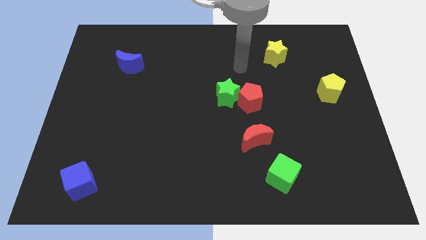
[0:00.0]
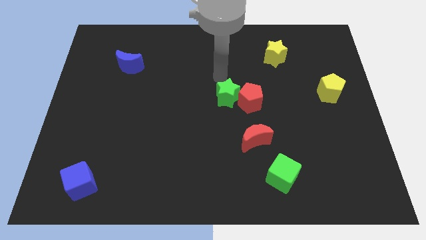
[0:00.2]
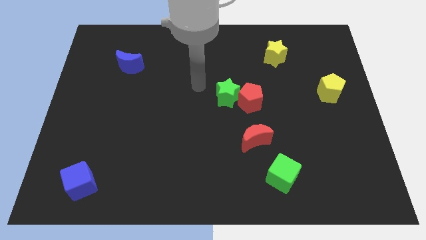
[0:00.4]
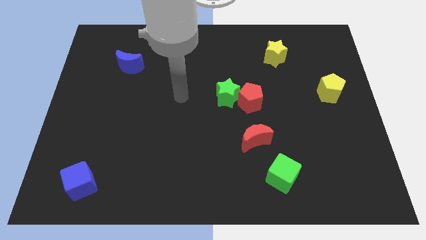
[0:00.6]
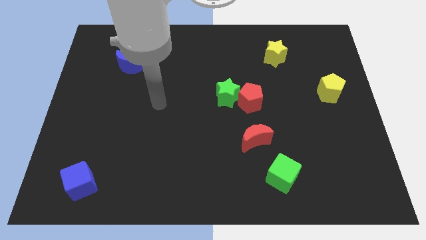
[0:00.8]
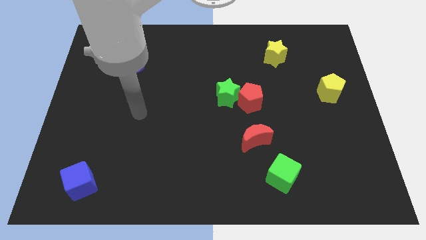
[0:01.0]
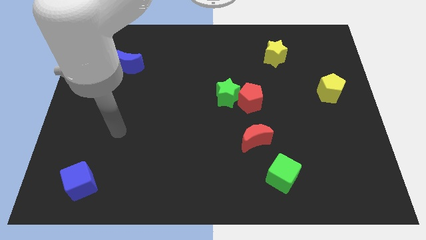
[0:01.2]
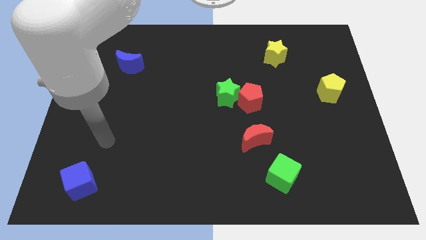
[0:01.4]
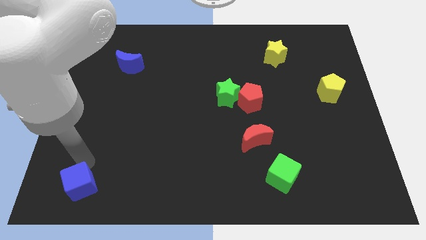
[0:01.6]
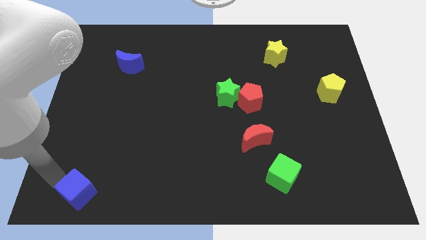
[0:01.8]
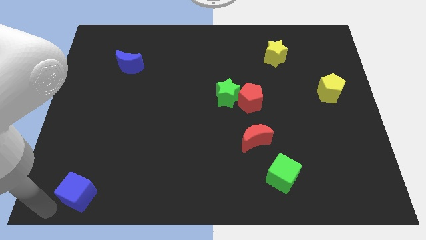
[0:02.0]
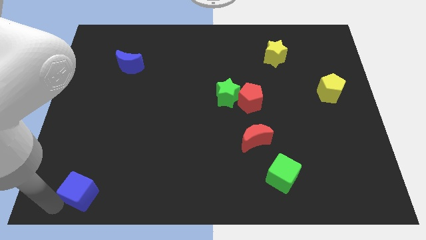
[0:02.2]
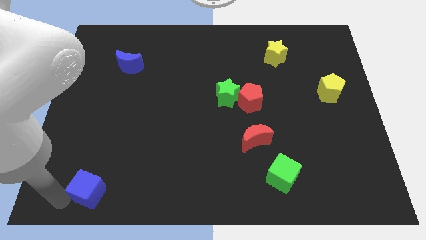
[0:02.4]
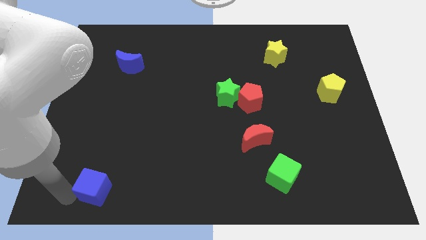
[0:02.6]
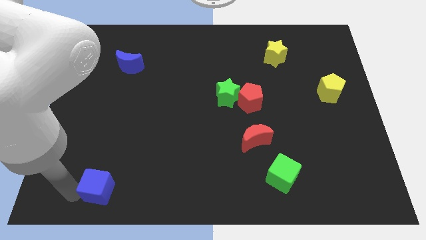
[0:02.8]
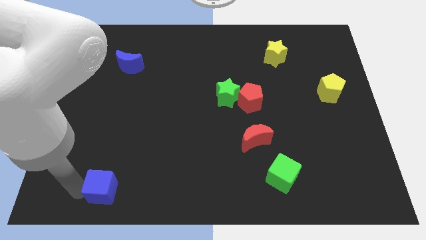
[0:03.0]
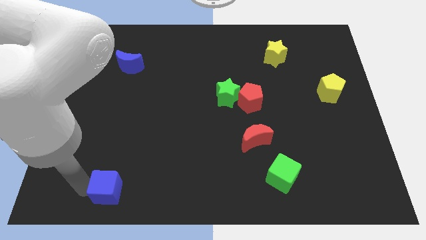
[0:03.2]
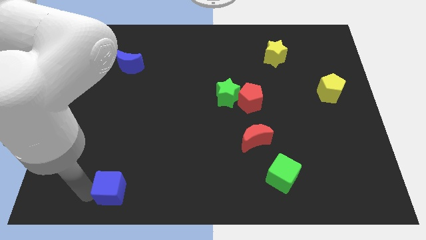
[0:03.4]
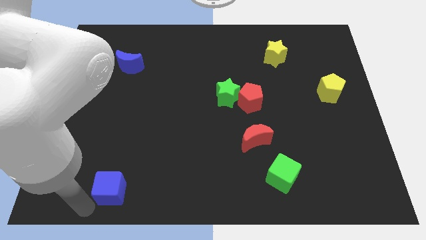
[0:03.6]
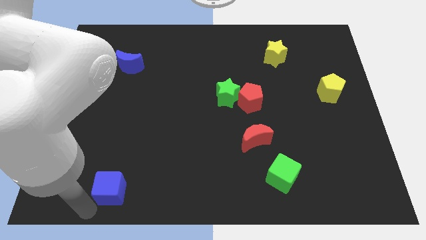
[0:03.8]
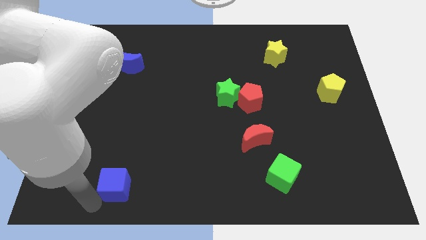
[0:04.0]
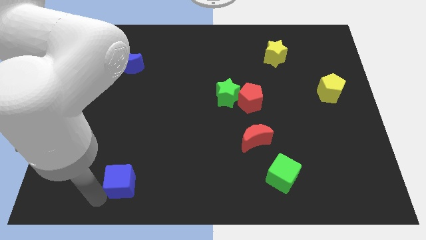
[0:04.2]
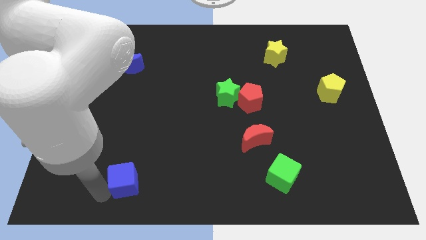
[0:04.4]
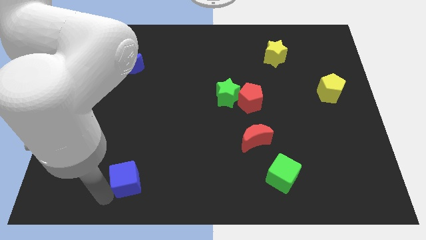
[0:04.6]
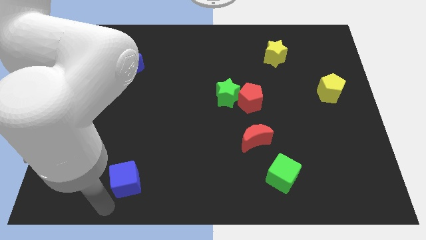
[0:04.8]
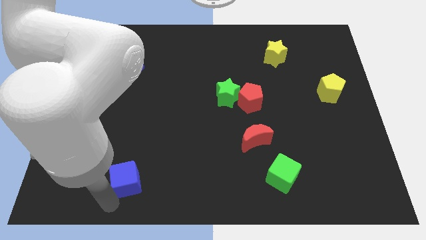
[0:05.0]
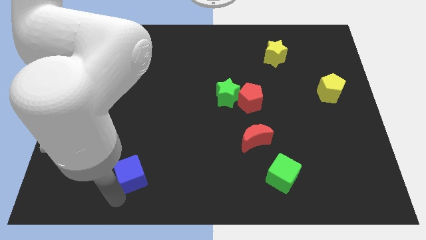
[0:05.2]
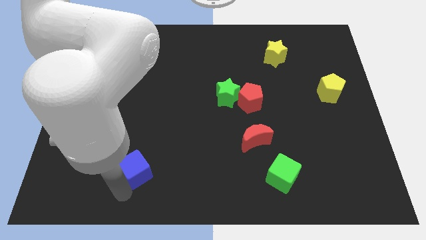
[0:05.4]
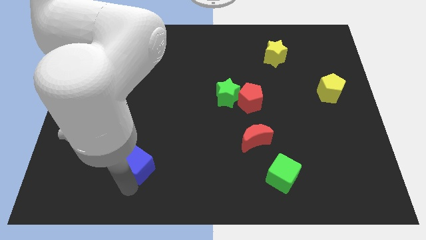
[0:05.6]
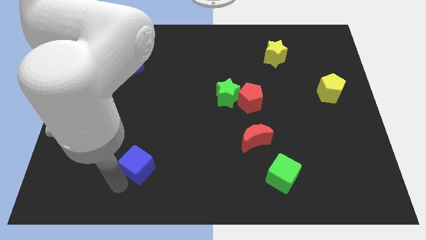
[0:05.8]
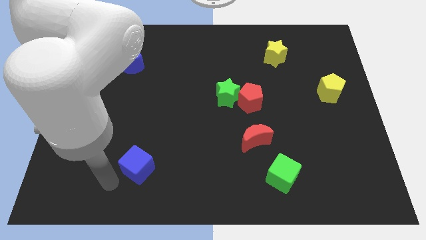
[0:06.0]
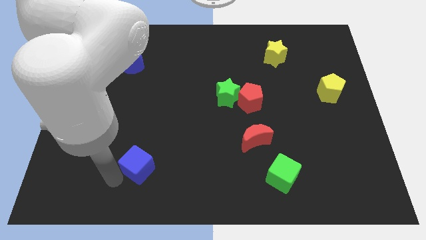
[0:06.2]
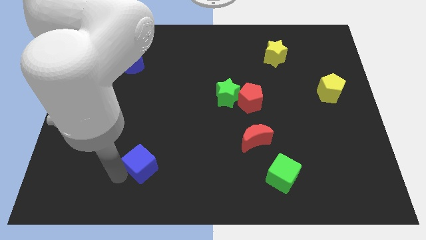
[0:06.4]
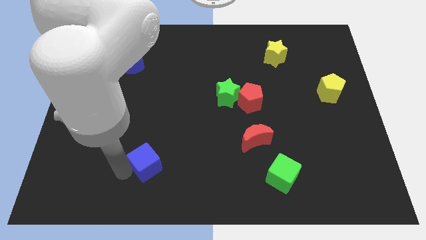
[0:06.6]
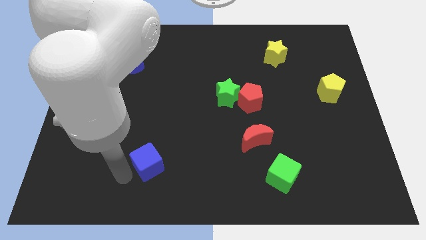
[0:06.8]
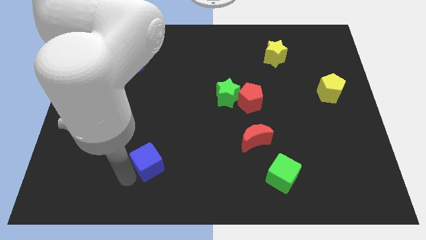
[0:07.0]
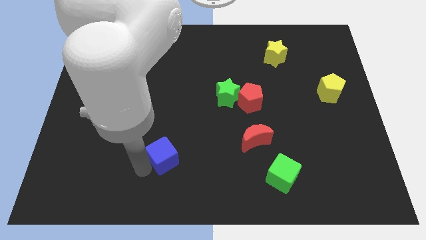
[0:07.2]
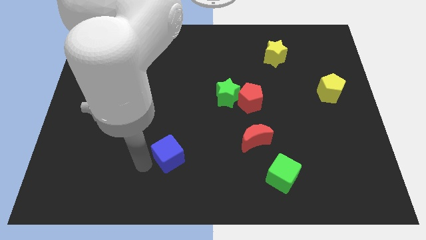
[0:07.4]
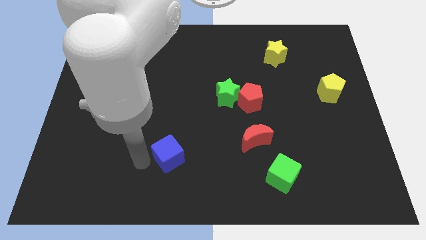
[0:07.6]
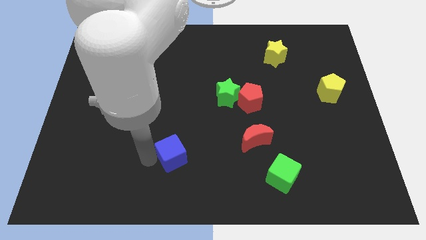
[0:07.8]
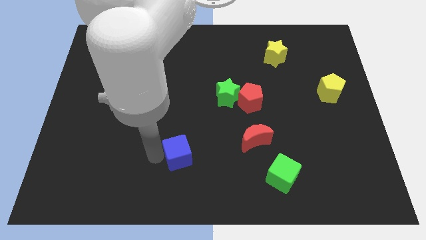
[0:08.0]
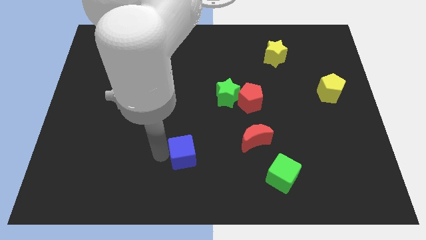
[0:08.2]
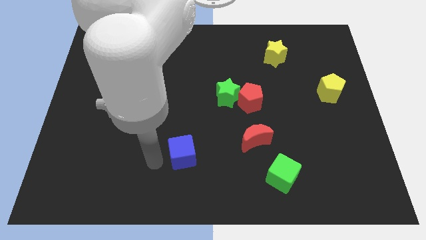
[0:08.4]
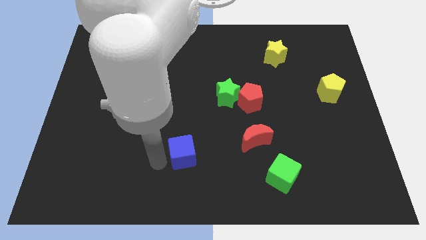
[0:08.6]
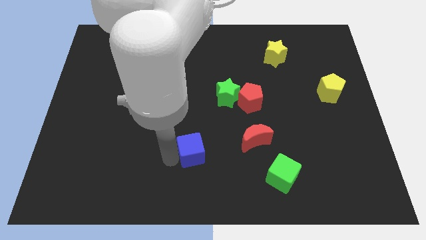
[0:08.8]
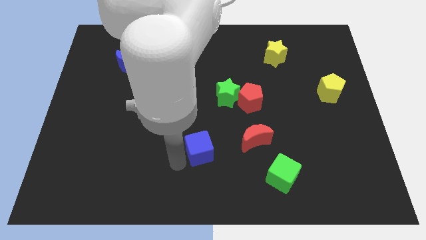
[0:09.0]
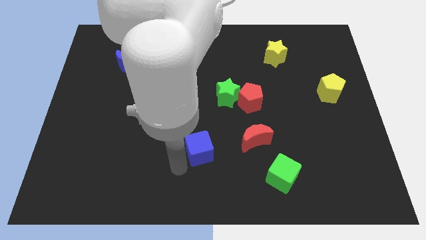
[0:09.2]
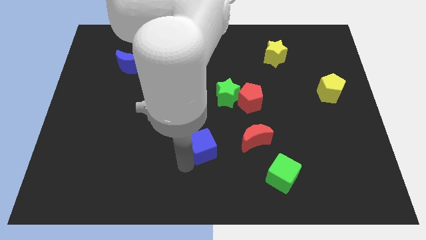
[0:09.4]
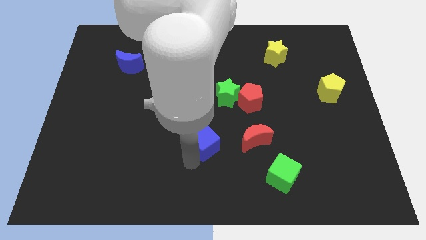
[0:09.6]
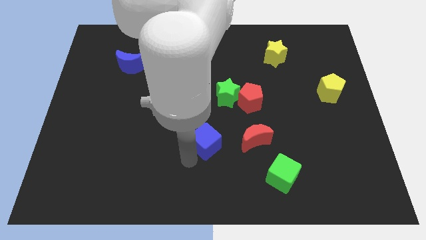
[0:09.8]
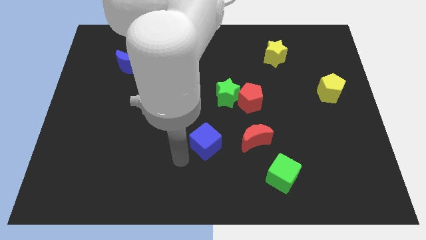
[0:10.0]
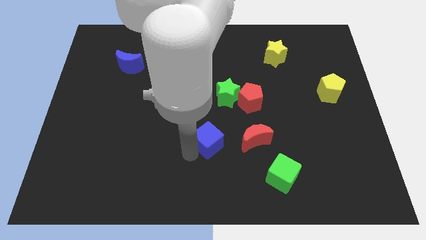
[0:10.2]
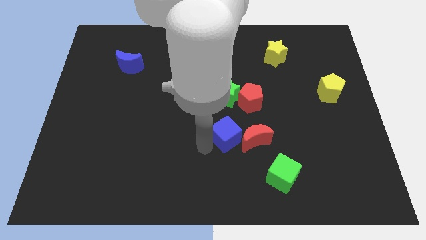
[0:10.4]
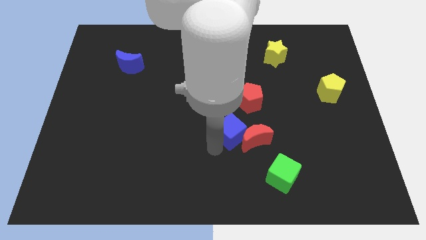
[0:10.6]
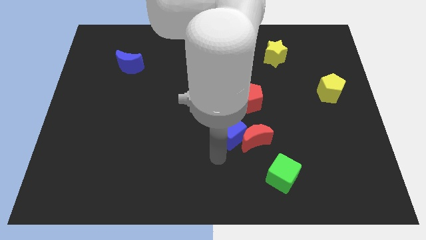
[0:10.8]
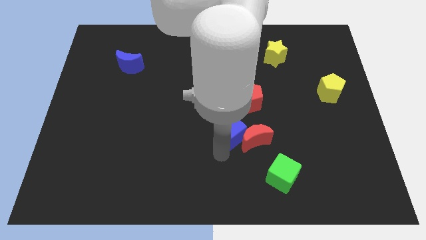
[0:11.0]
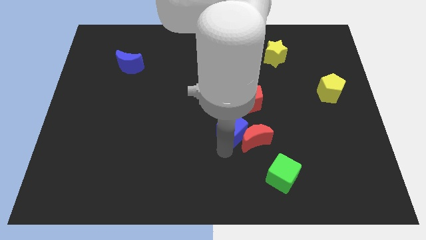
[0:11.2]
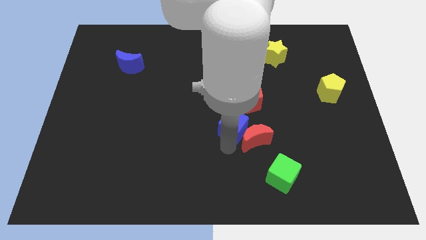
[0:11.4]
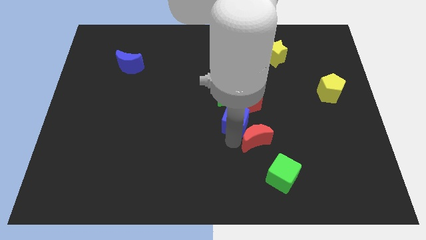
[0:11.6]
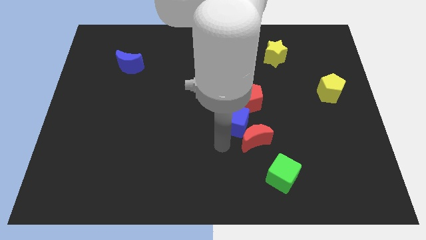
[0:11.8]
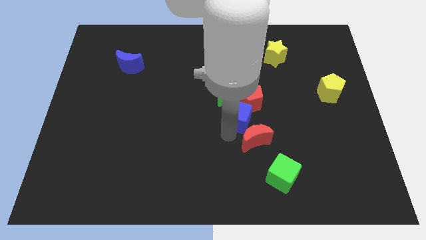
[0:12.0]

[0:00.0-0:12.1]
move the blue cube to the red pentagon
